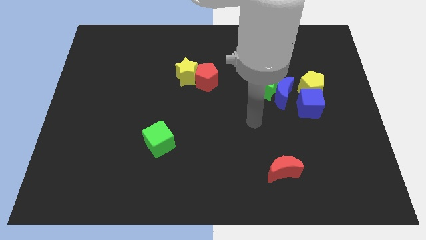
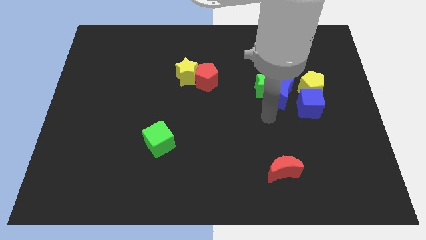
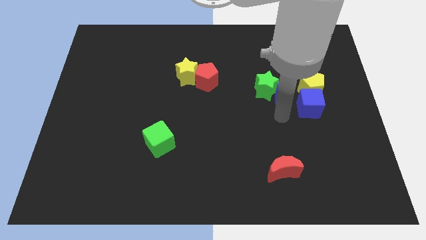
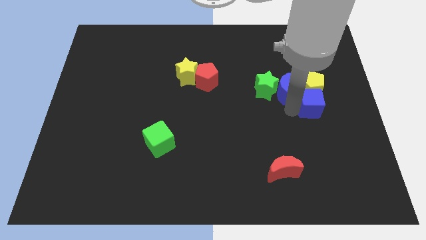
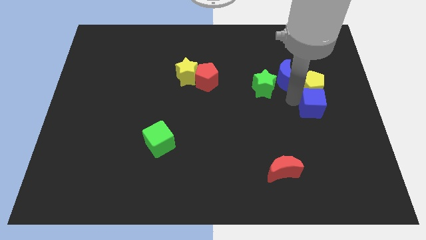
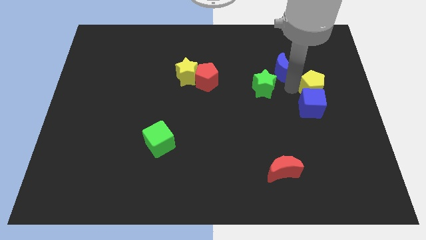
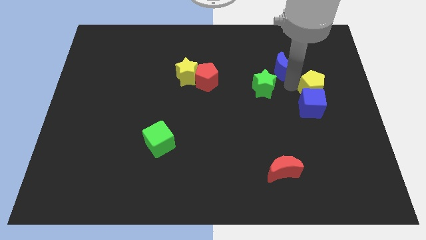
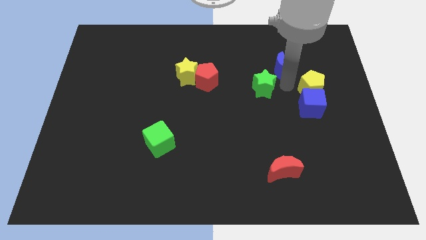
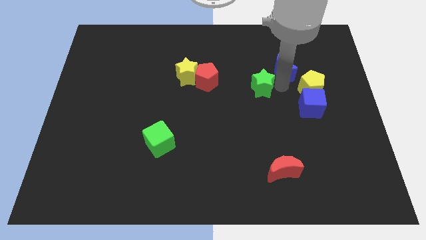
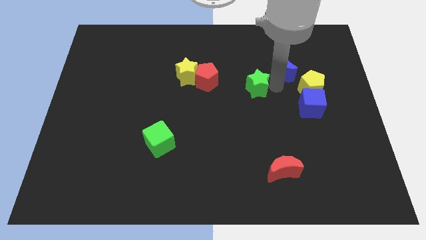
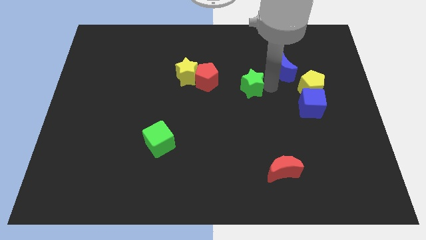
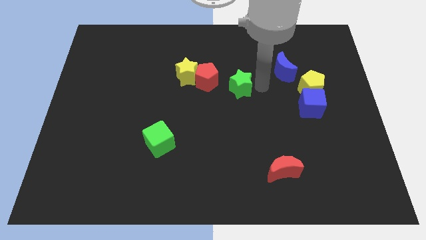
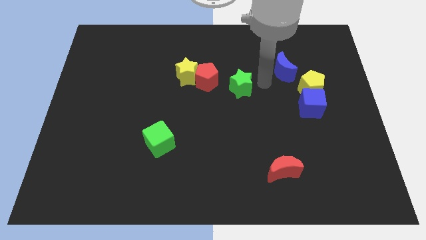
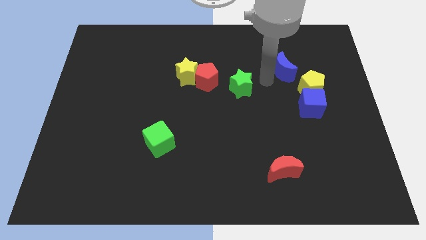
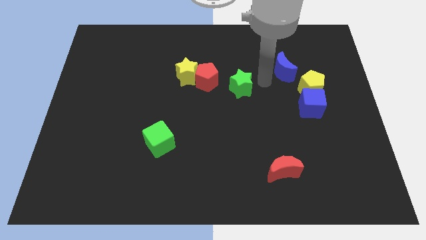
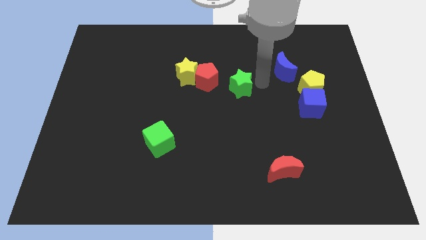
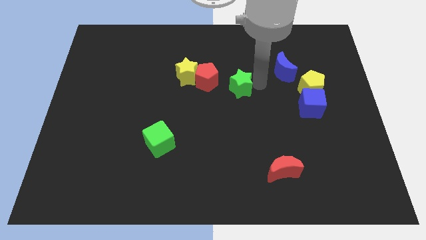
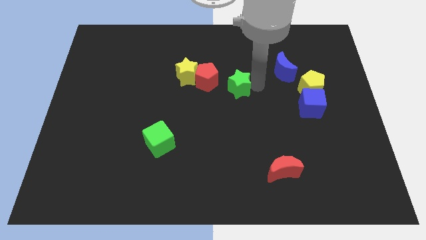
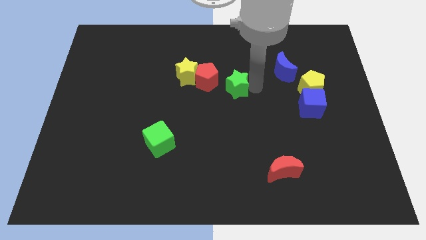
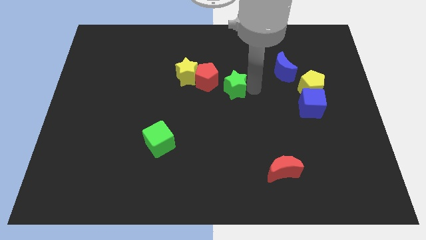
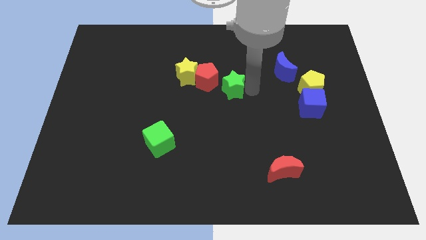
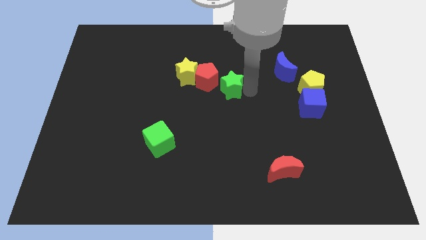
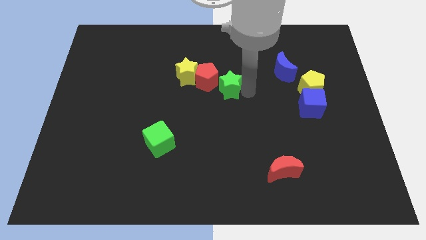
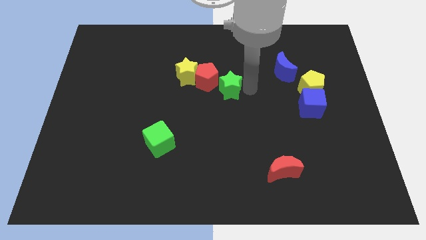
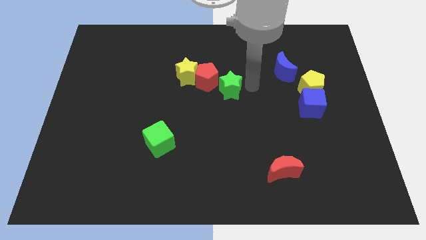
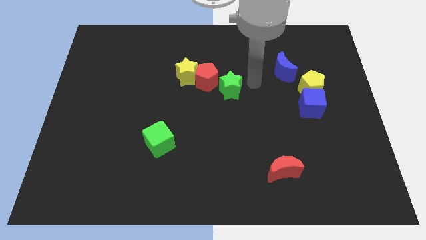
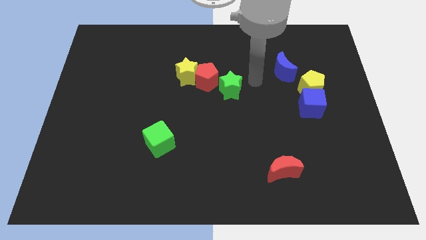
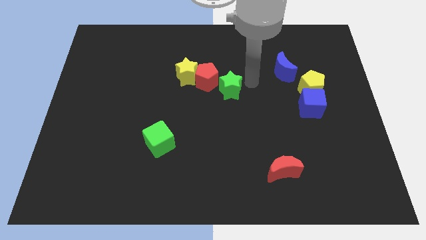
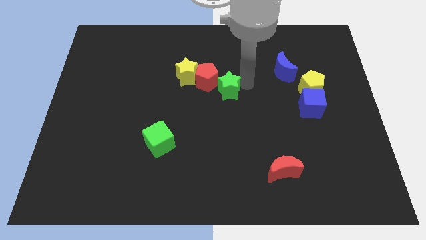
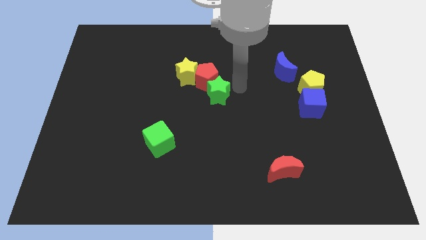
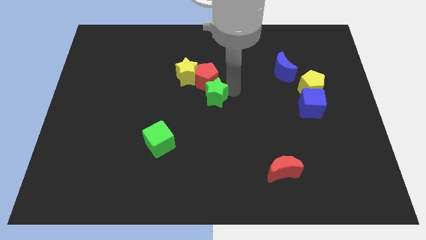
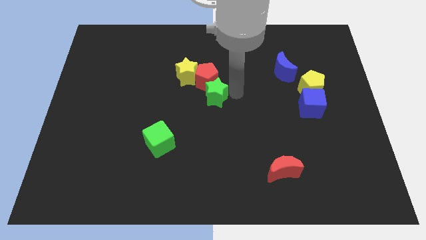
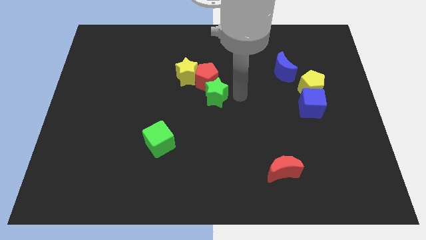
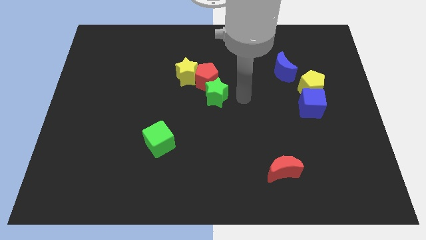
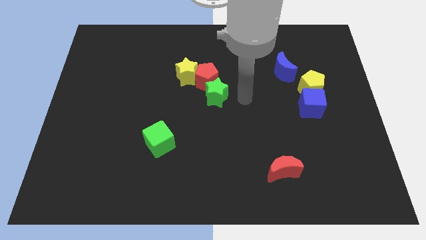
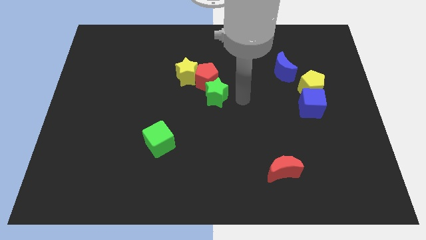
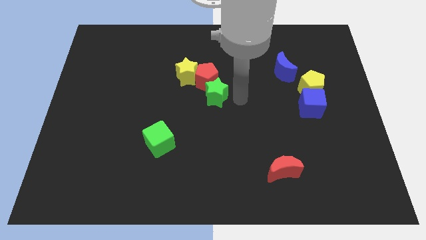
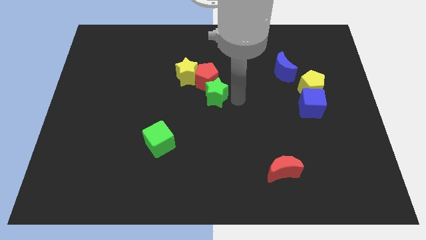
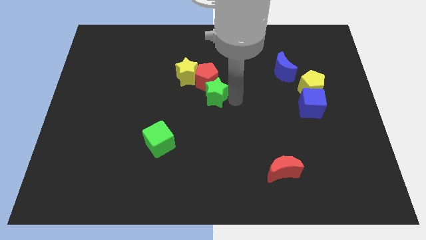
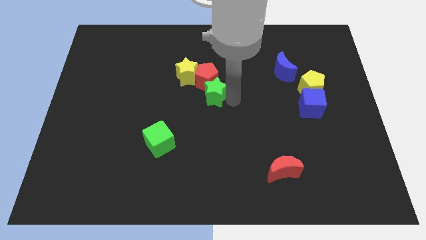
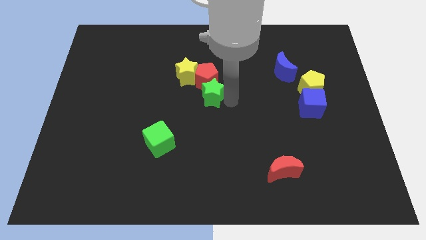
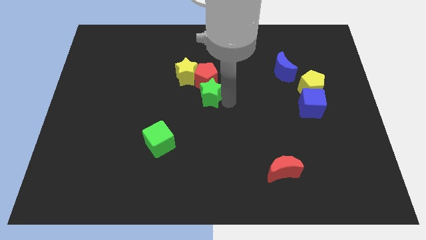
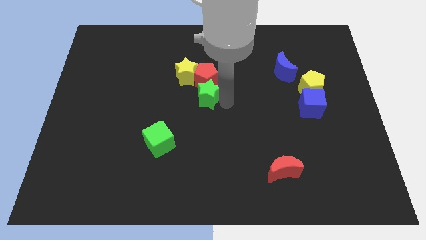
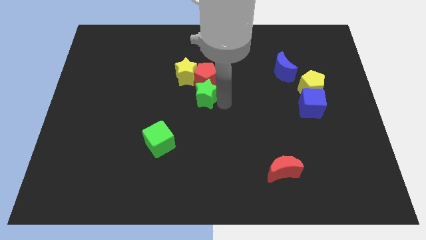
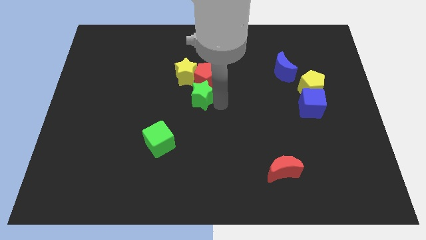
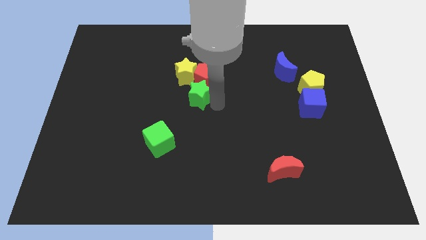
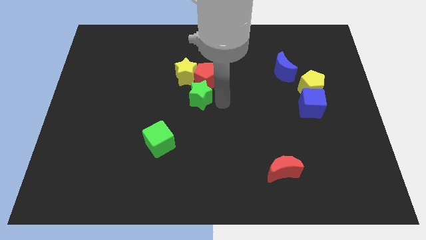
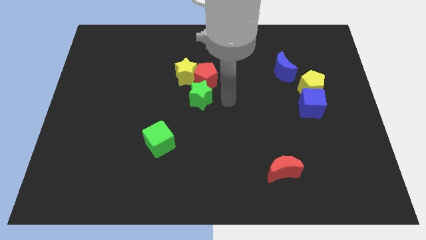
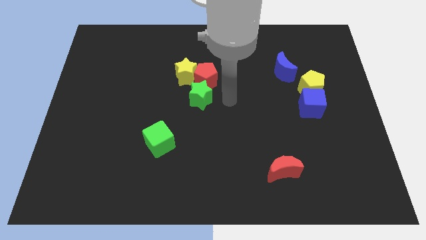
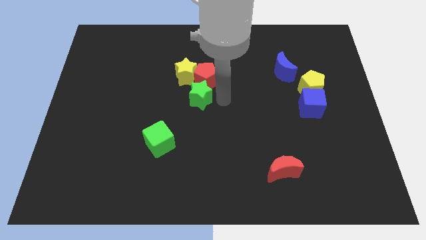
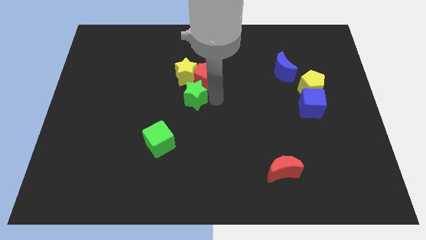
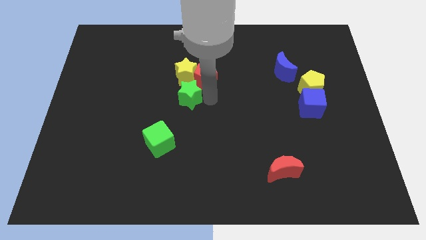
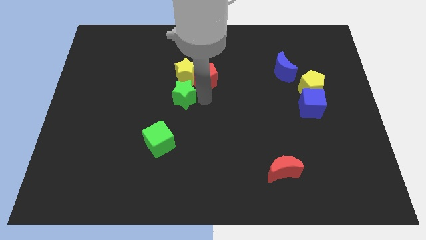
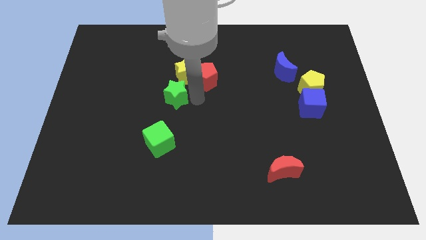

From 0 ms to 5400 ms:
put the green star to the bottom left of the yellow star

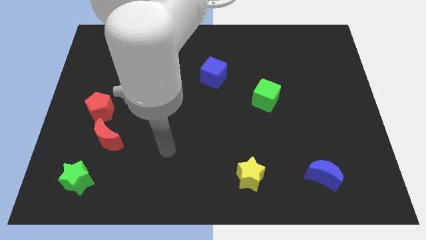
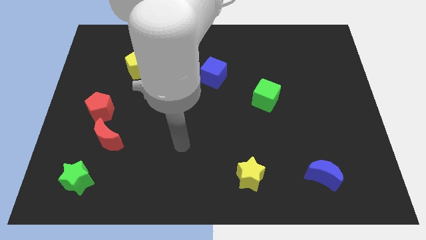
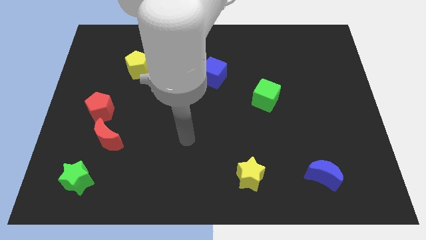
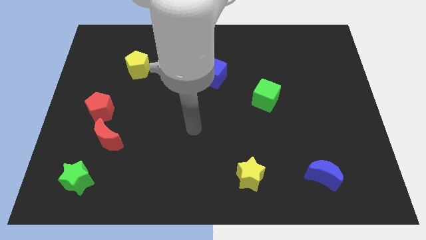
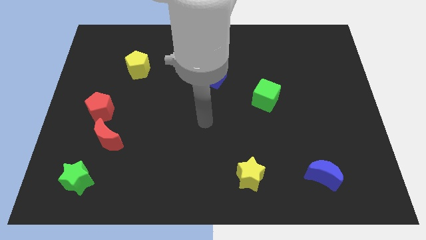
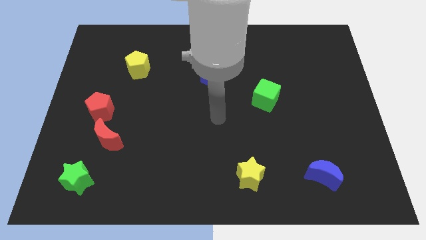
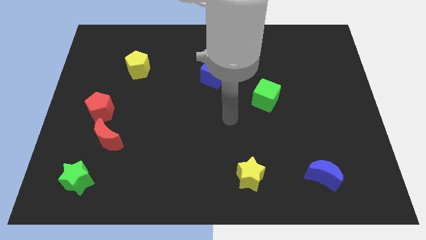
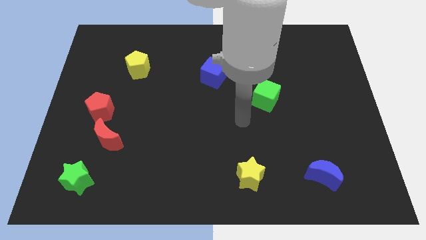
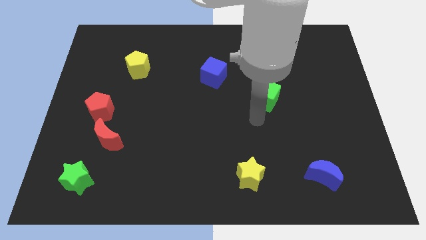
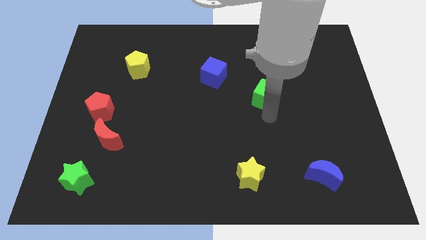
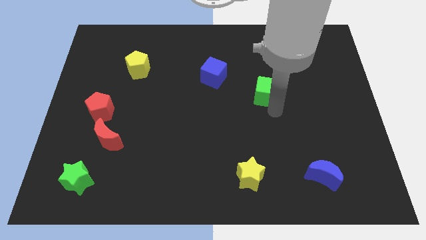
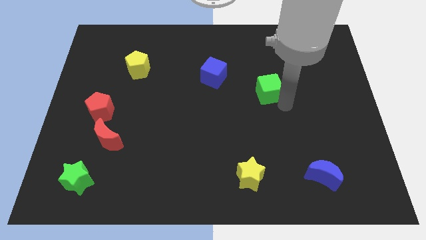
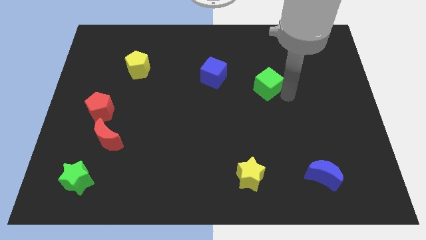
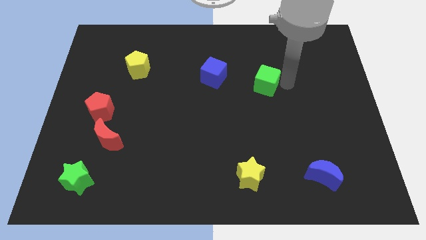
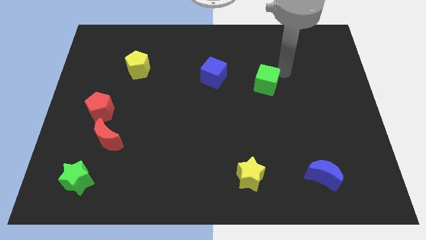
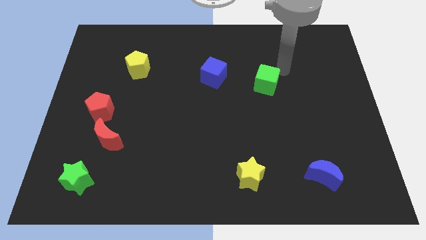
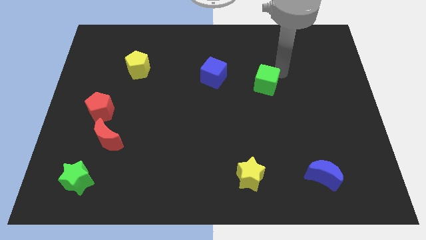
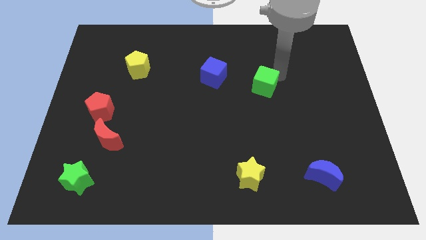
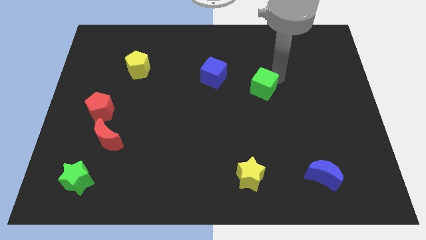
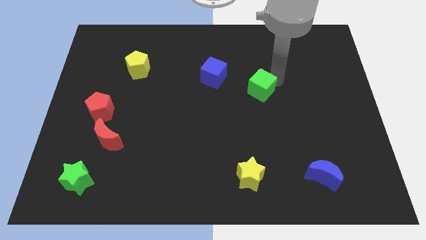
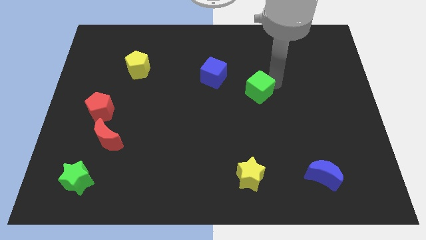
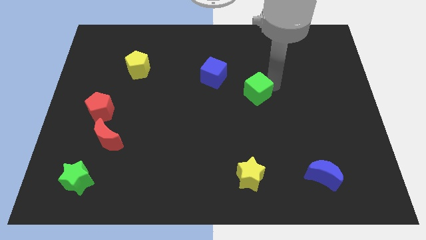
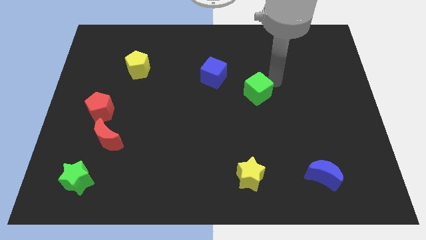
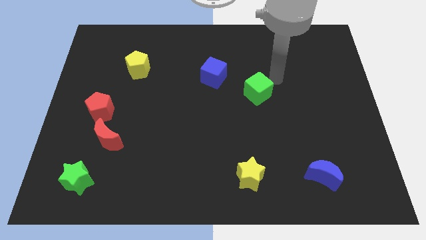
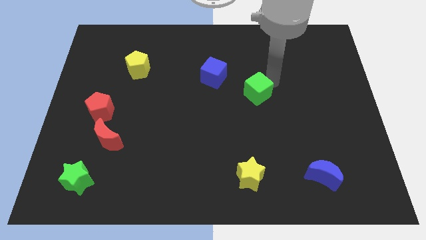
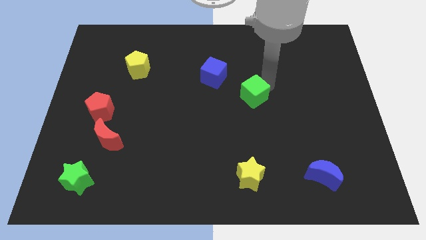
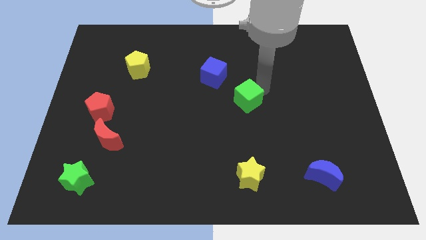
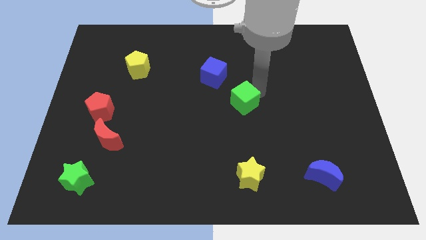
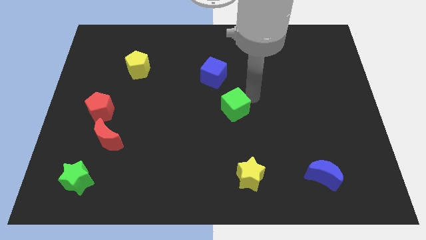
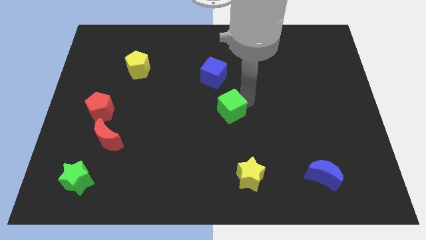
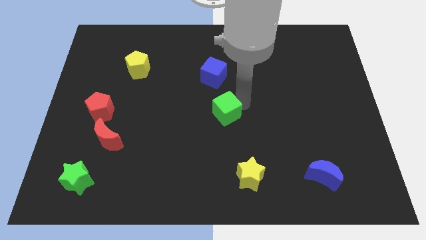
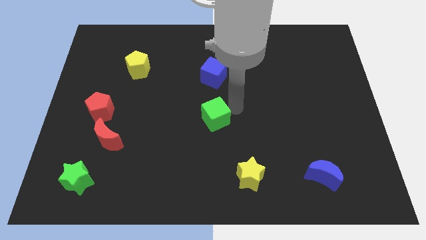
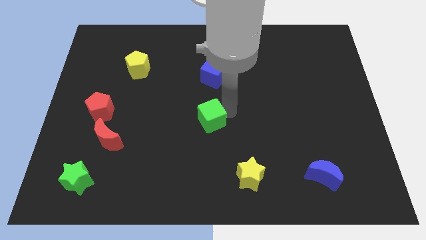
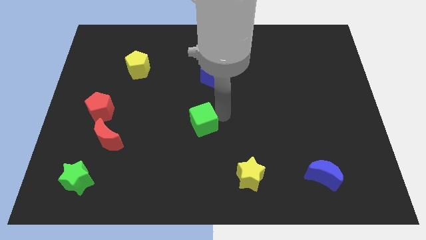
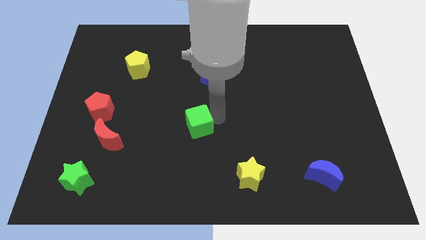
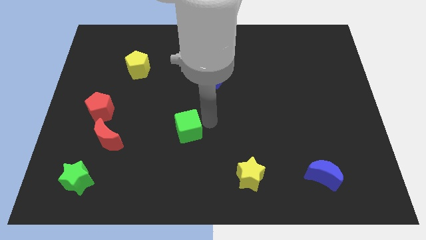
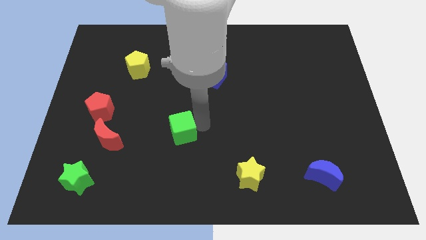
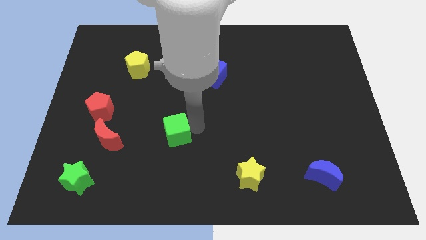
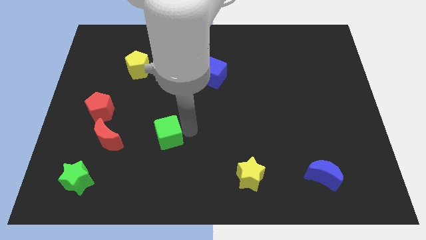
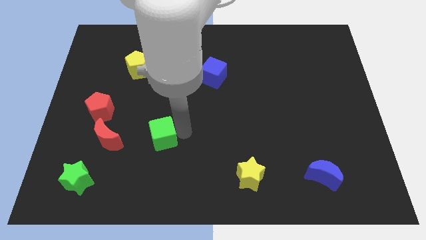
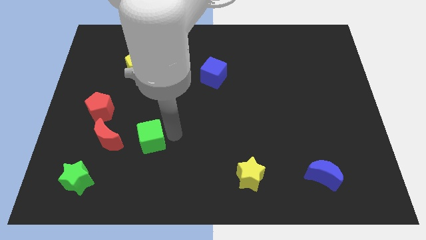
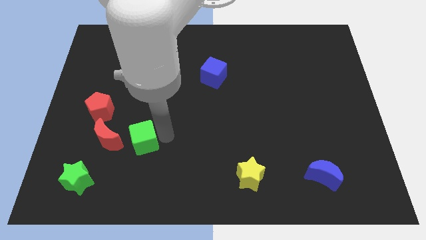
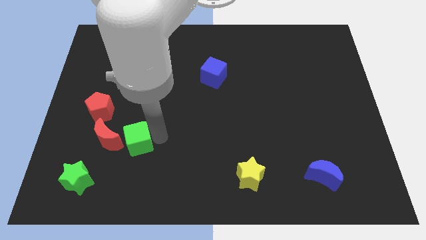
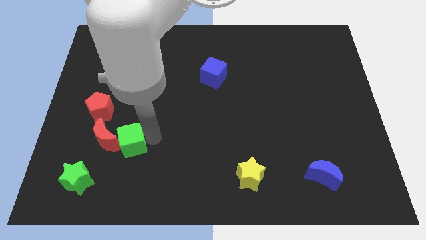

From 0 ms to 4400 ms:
put the green cube to the top right side of the green star
